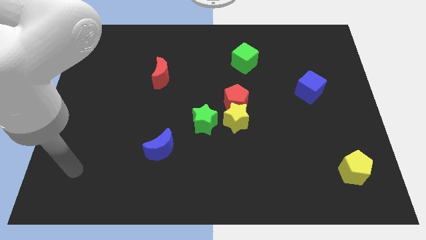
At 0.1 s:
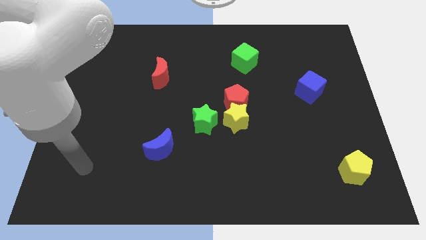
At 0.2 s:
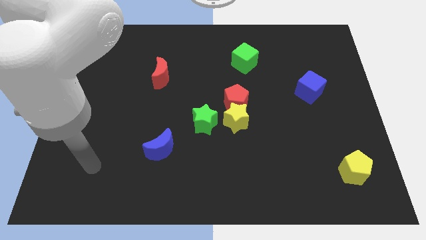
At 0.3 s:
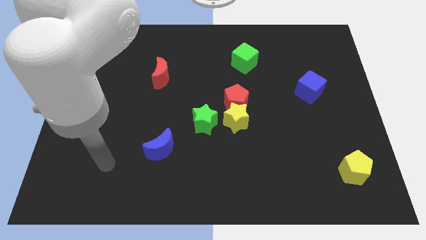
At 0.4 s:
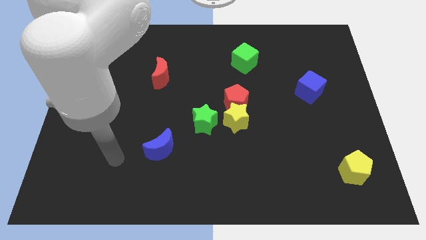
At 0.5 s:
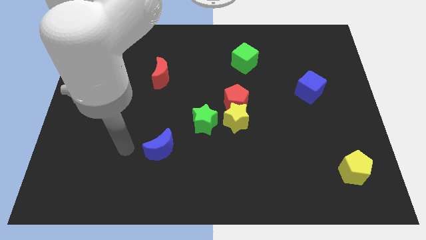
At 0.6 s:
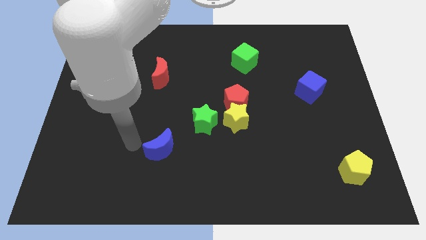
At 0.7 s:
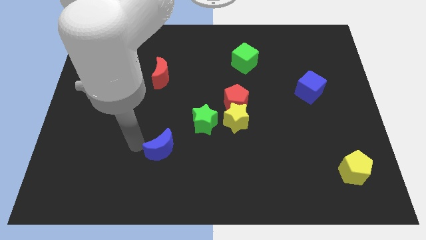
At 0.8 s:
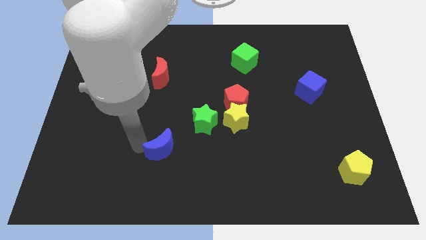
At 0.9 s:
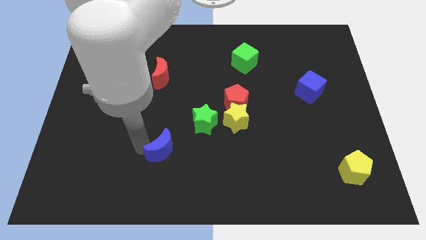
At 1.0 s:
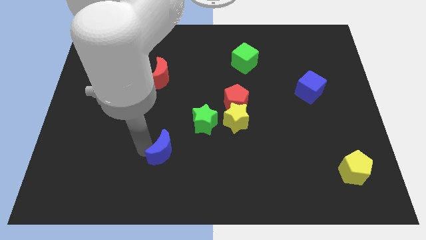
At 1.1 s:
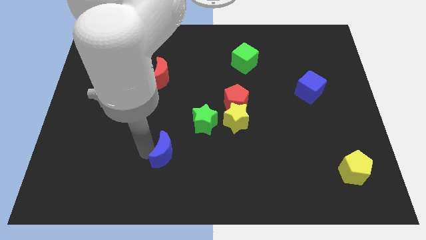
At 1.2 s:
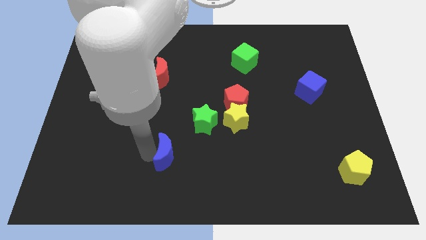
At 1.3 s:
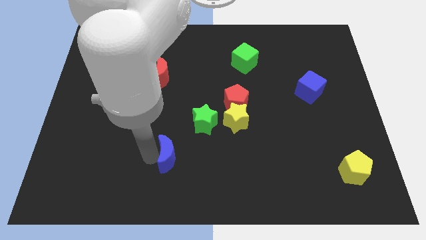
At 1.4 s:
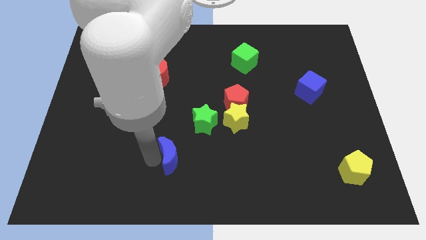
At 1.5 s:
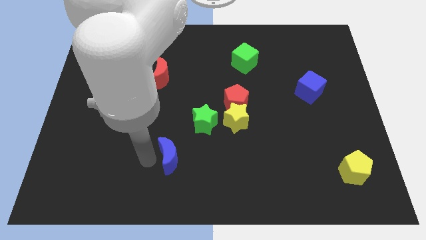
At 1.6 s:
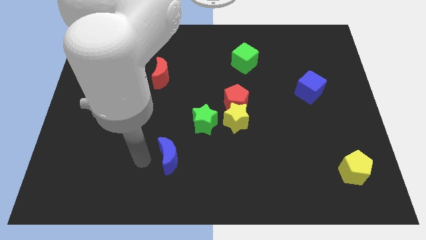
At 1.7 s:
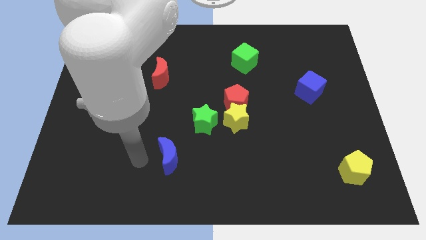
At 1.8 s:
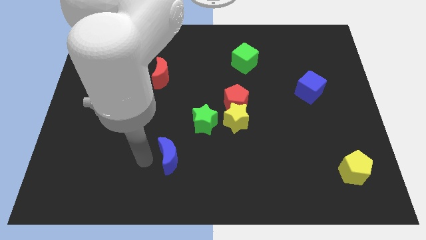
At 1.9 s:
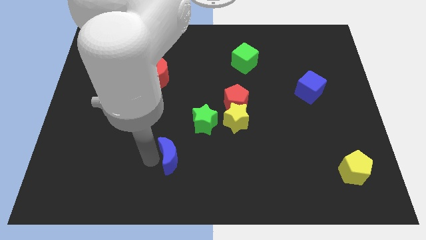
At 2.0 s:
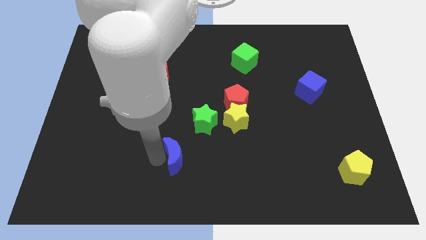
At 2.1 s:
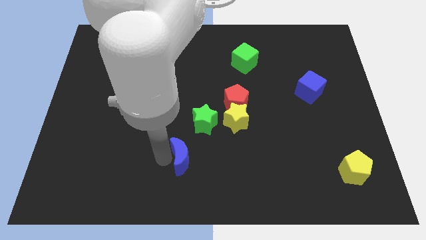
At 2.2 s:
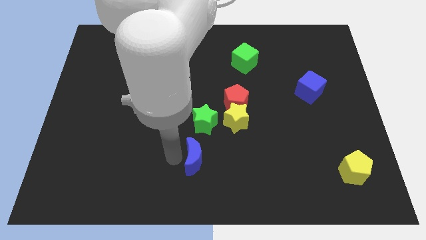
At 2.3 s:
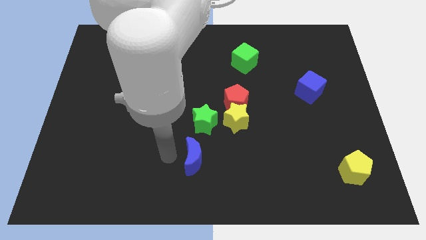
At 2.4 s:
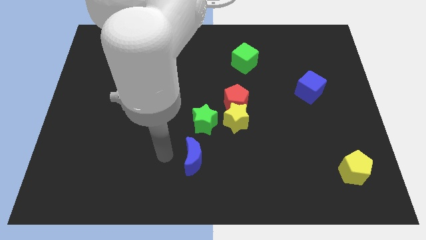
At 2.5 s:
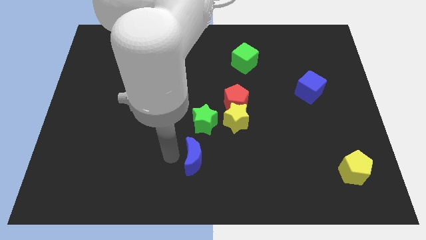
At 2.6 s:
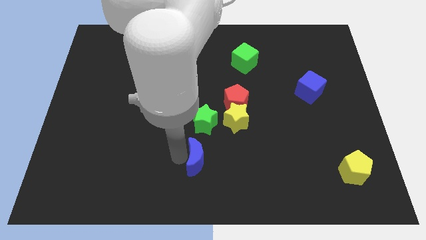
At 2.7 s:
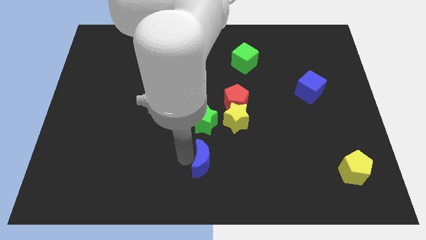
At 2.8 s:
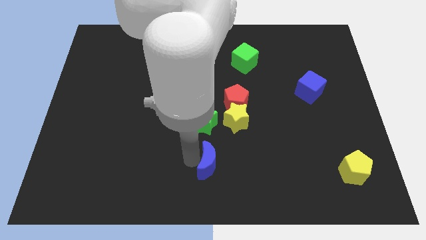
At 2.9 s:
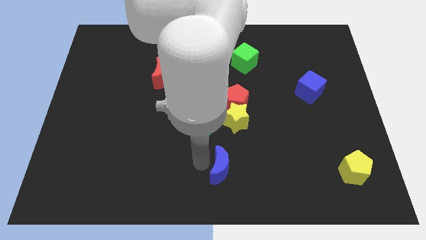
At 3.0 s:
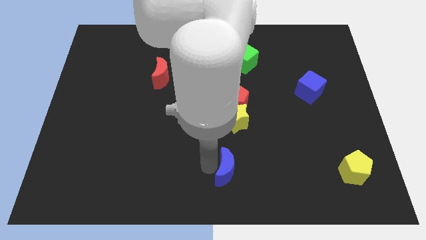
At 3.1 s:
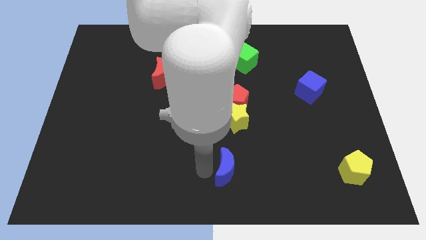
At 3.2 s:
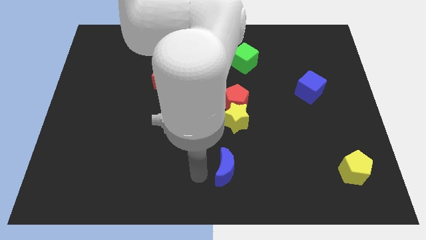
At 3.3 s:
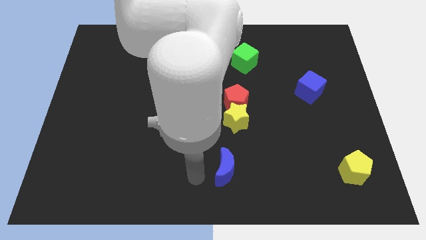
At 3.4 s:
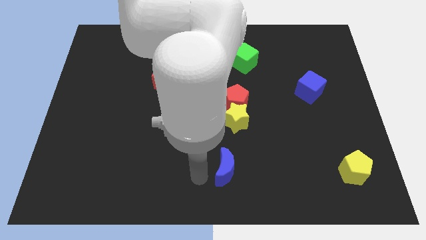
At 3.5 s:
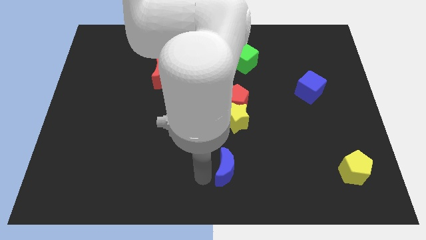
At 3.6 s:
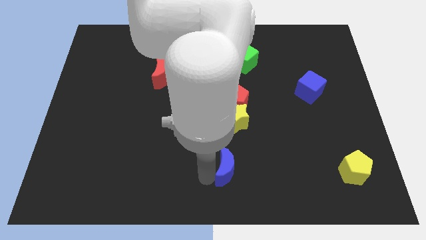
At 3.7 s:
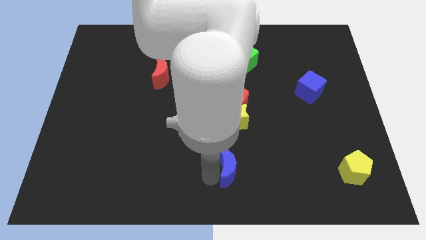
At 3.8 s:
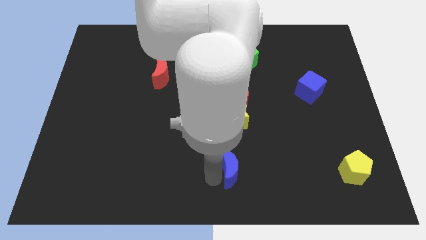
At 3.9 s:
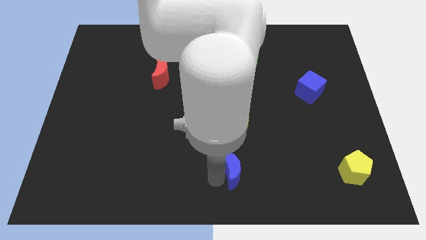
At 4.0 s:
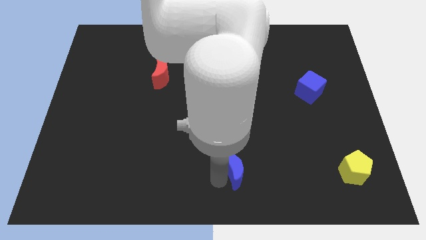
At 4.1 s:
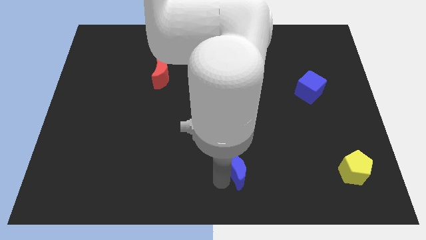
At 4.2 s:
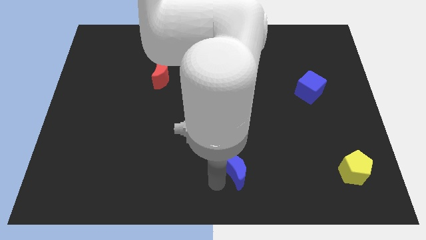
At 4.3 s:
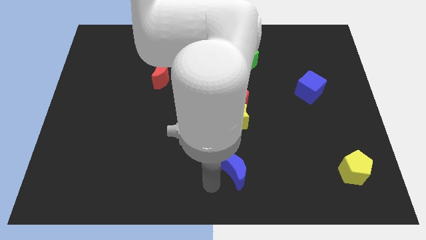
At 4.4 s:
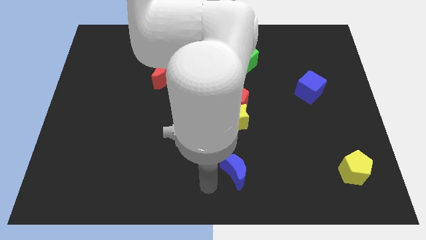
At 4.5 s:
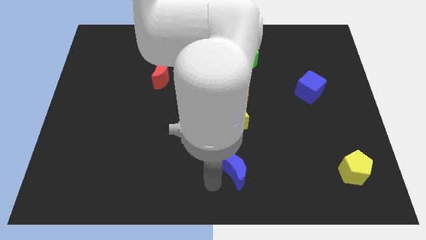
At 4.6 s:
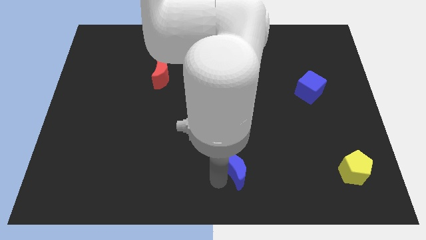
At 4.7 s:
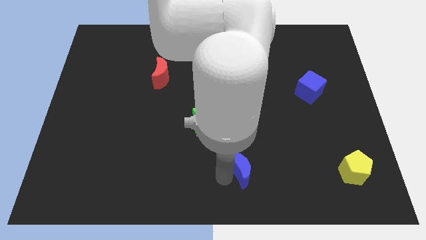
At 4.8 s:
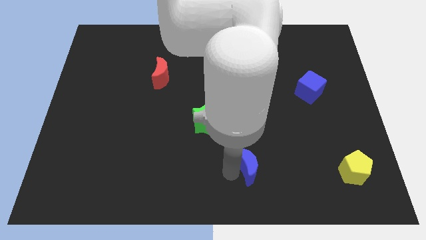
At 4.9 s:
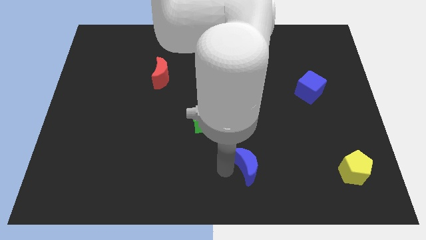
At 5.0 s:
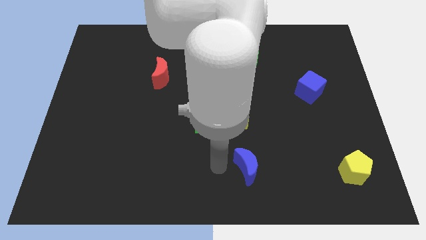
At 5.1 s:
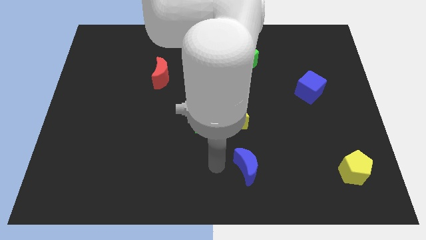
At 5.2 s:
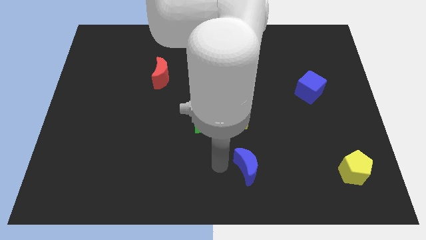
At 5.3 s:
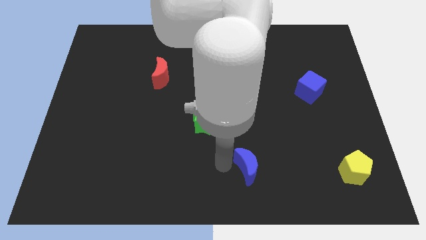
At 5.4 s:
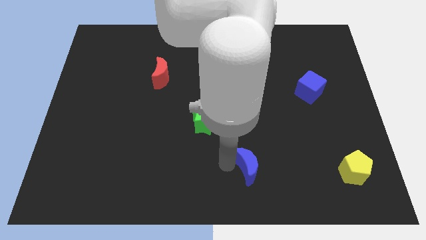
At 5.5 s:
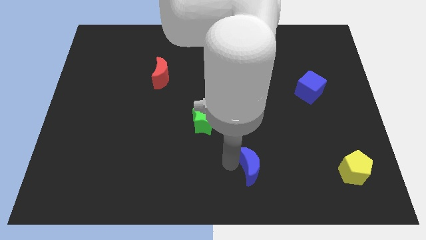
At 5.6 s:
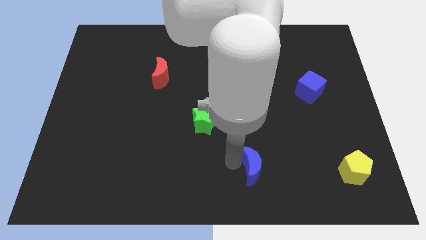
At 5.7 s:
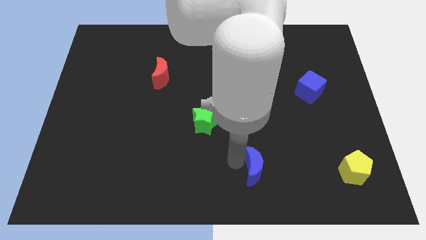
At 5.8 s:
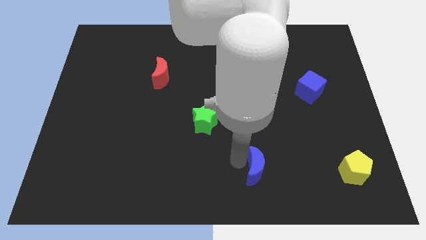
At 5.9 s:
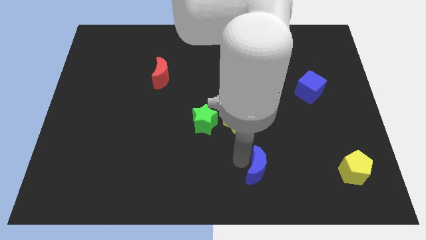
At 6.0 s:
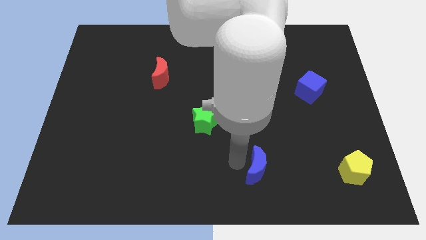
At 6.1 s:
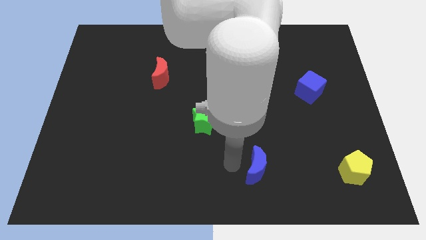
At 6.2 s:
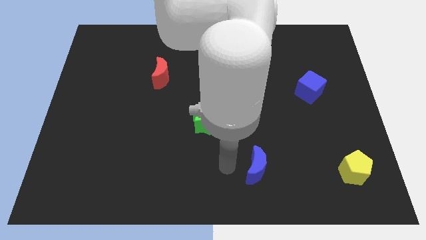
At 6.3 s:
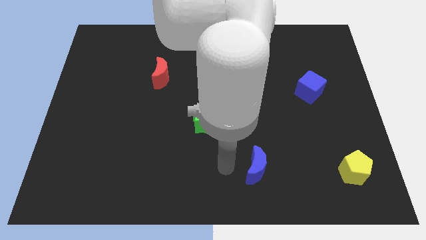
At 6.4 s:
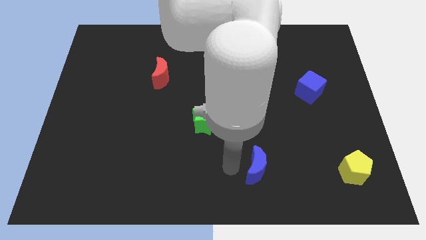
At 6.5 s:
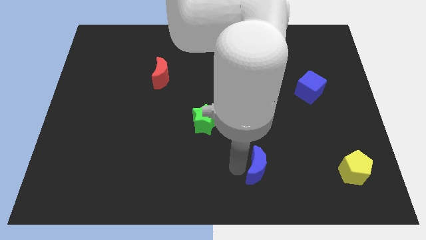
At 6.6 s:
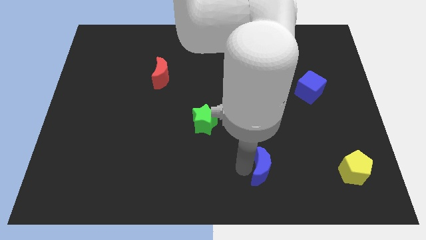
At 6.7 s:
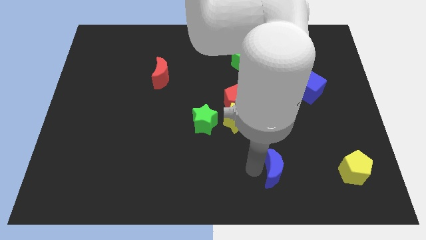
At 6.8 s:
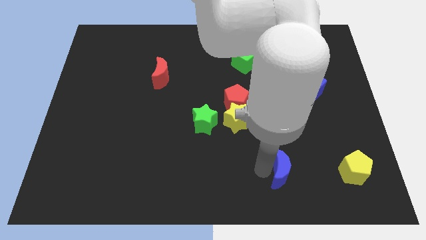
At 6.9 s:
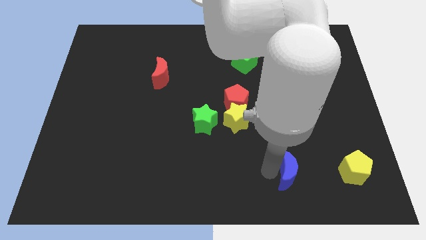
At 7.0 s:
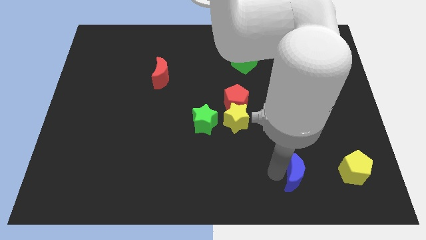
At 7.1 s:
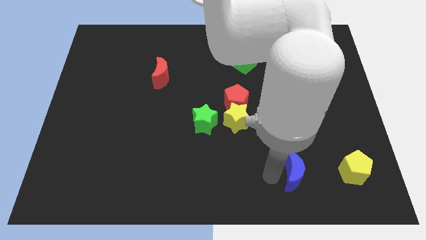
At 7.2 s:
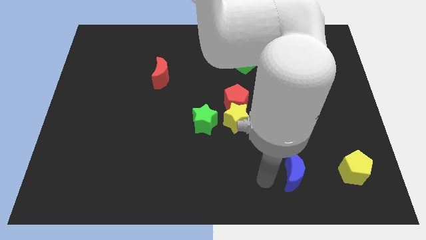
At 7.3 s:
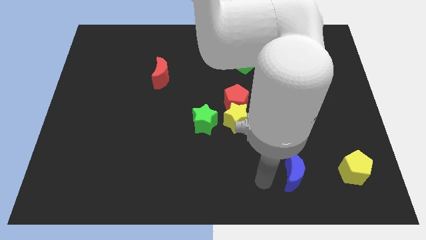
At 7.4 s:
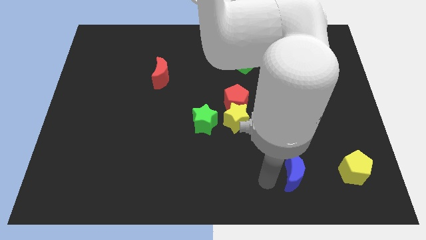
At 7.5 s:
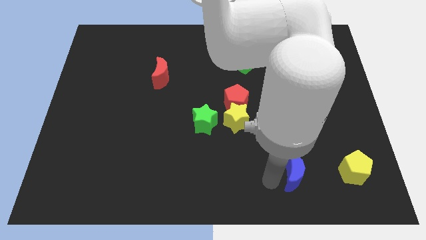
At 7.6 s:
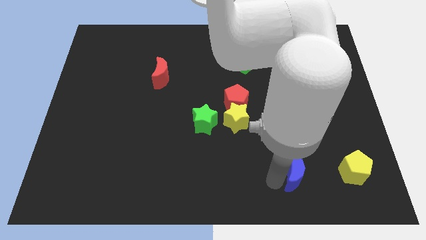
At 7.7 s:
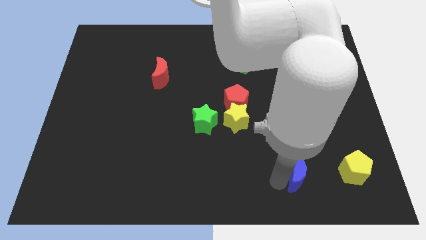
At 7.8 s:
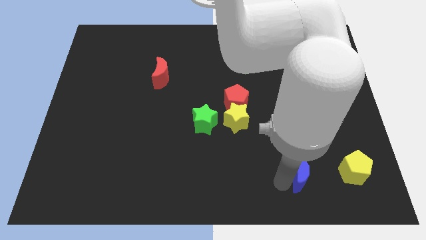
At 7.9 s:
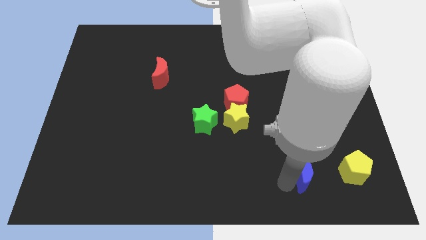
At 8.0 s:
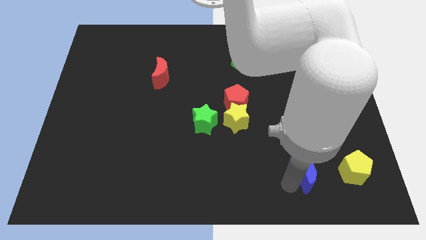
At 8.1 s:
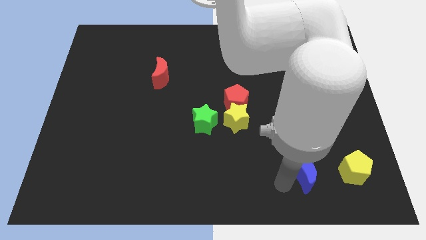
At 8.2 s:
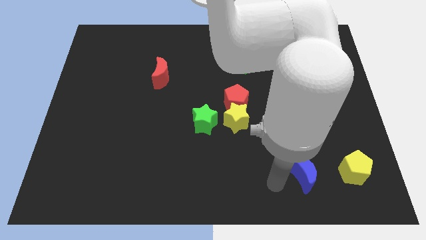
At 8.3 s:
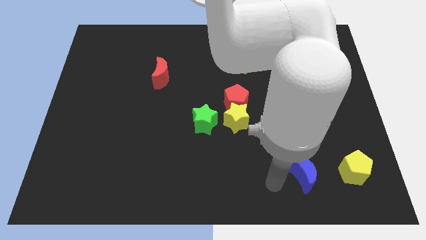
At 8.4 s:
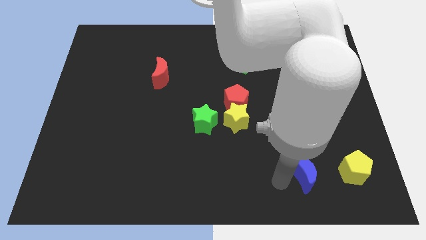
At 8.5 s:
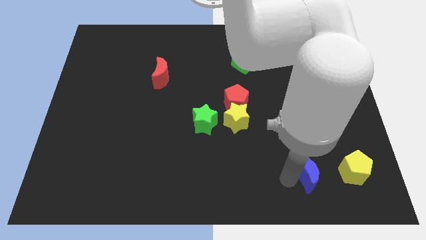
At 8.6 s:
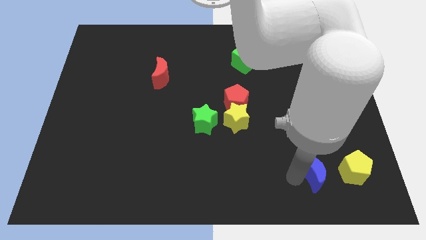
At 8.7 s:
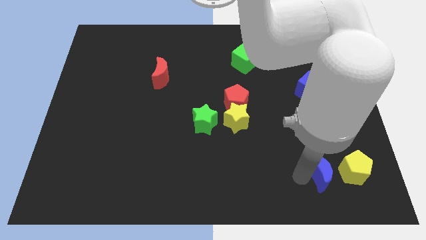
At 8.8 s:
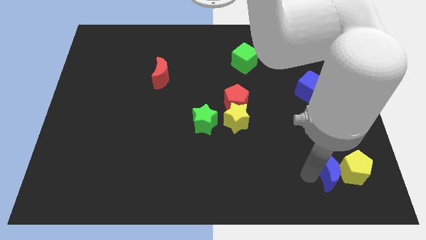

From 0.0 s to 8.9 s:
slide the blue moon next to the yellow pentagon
